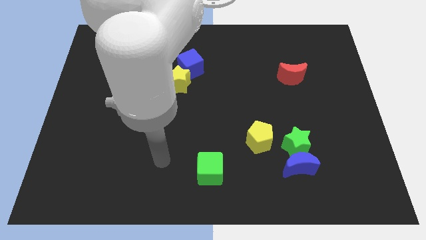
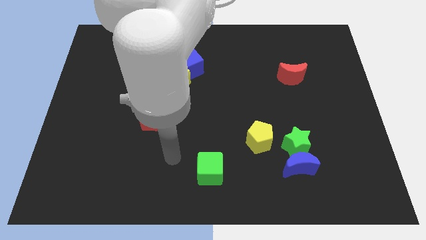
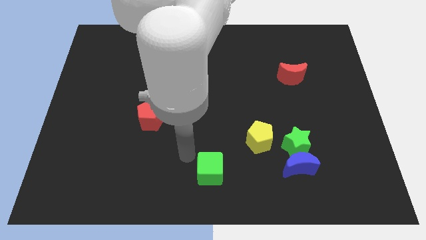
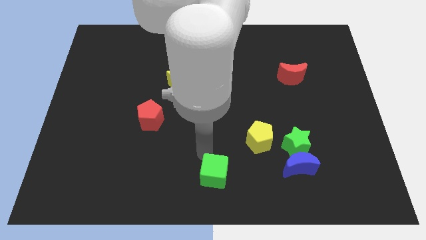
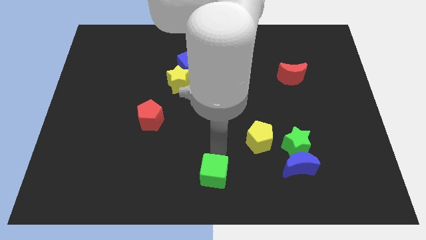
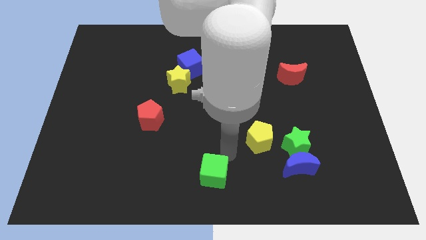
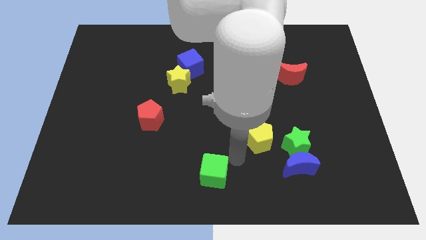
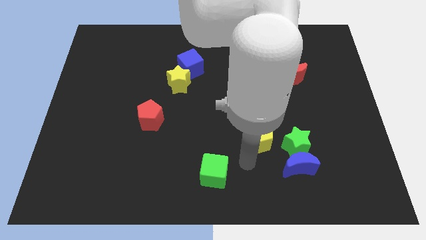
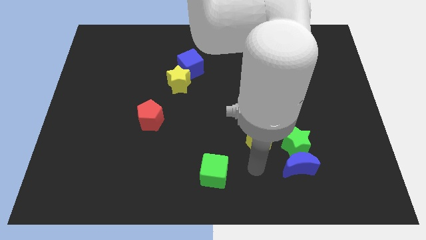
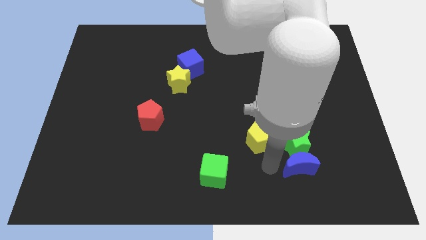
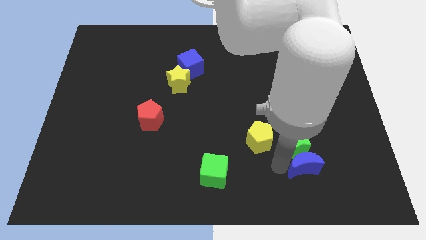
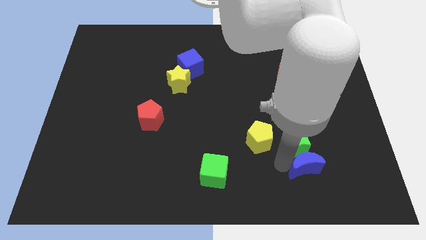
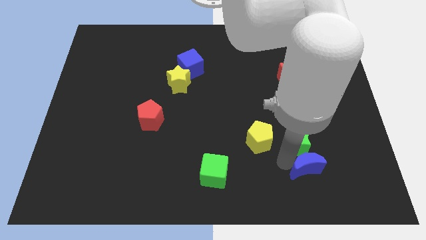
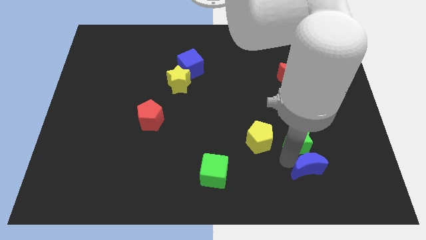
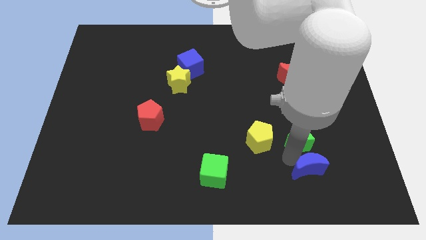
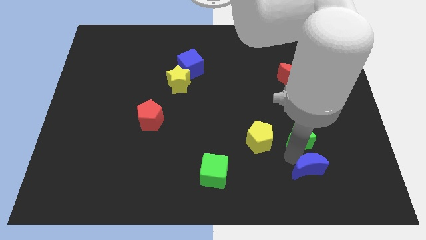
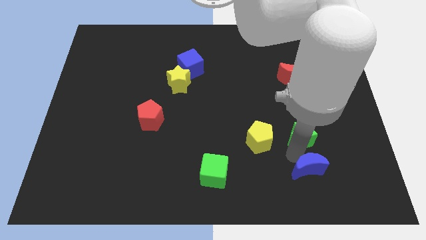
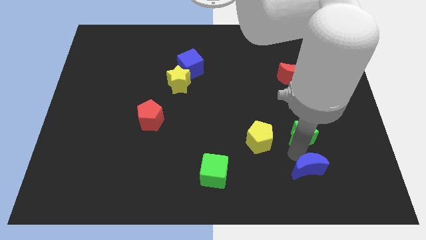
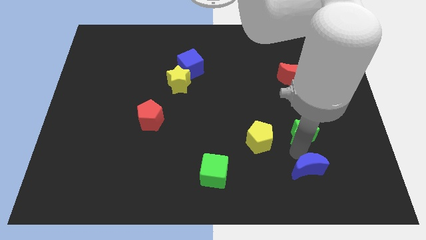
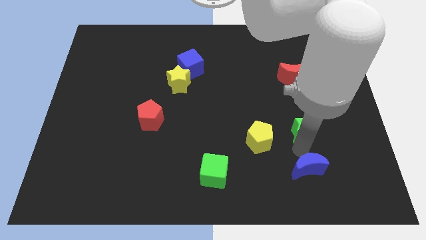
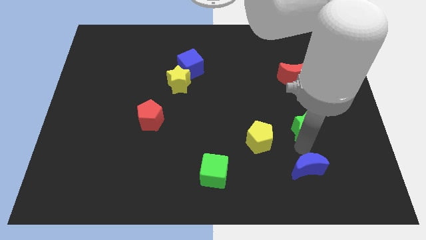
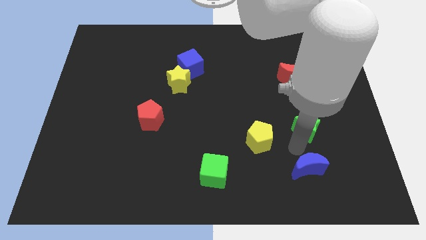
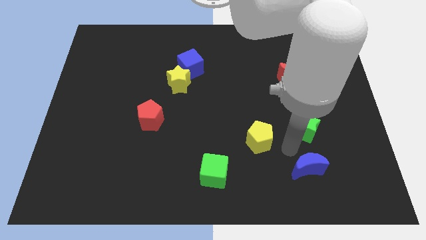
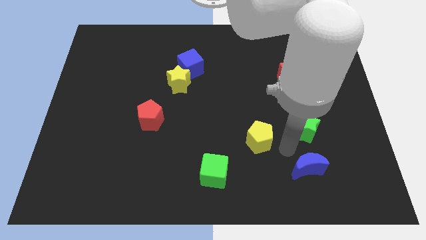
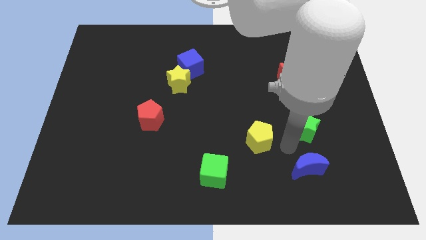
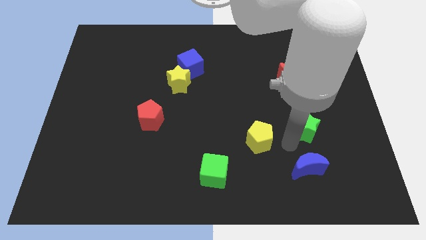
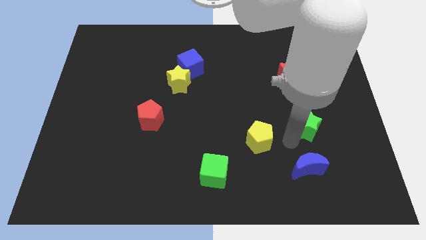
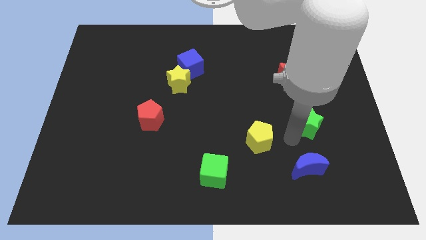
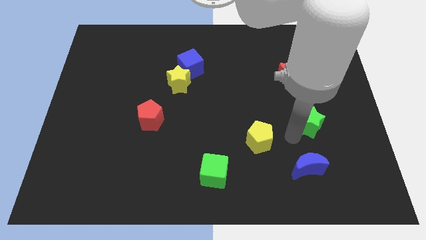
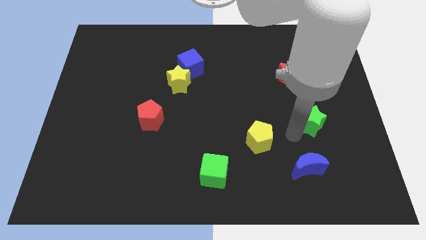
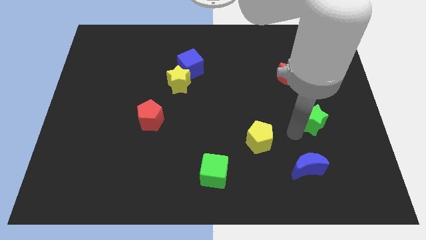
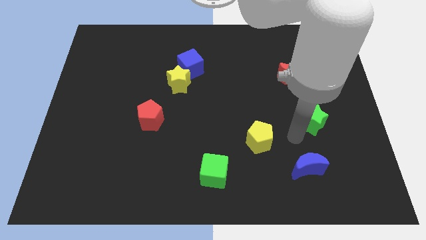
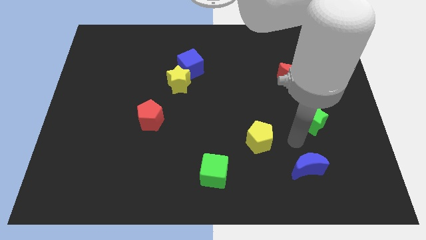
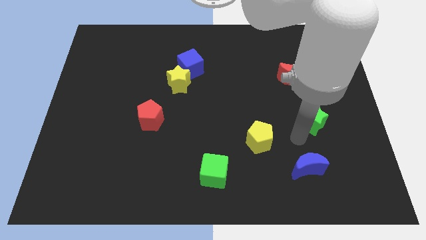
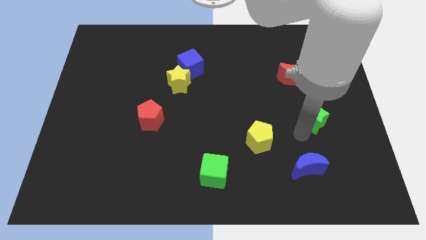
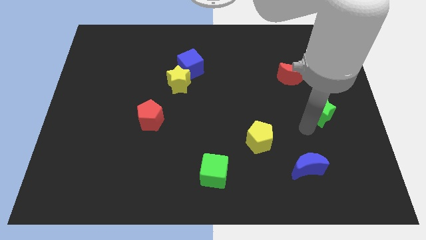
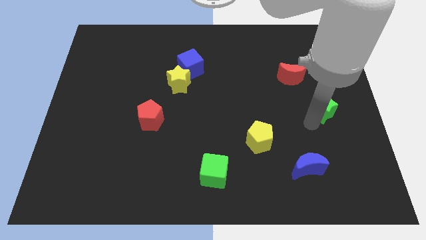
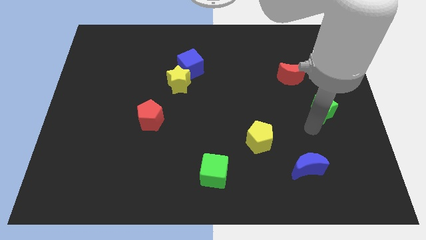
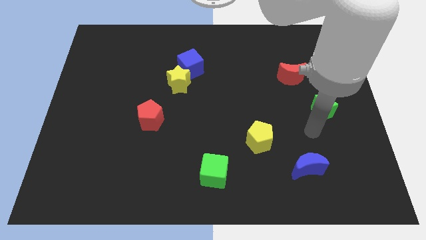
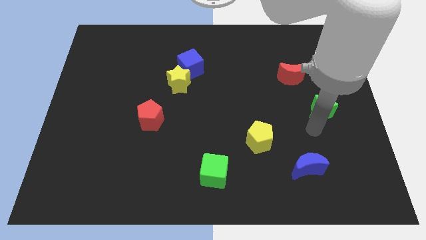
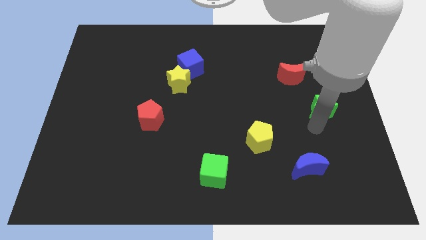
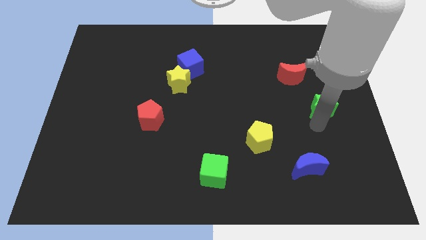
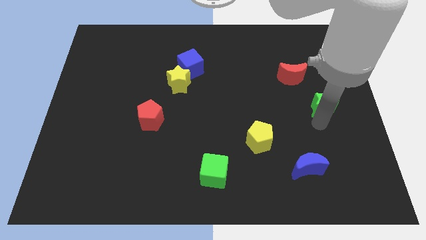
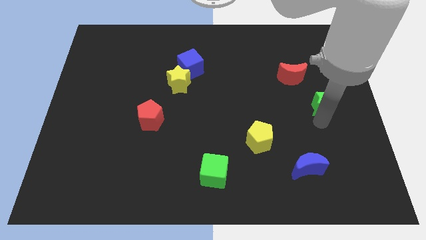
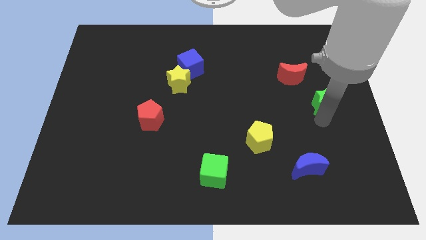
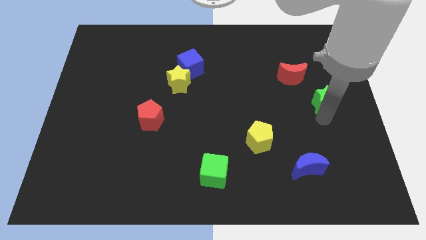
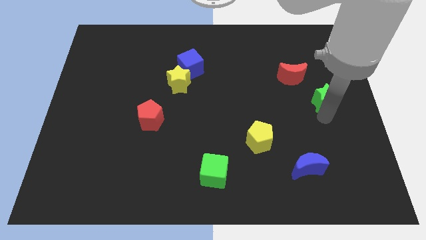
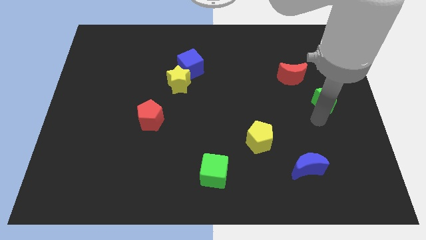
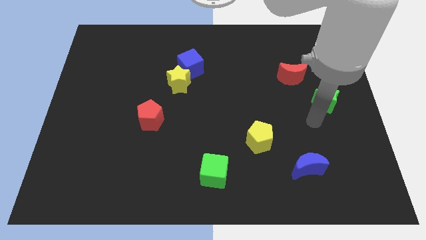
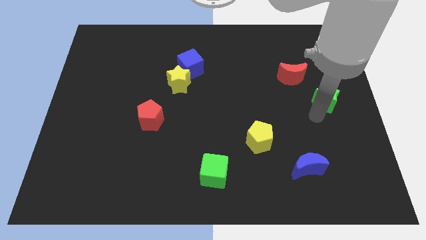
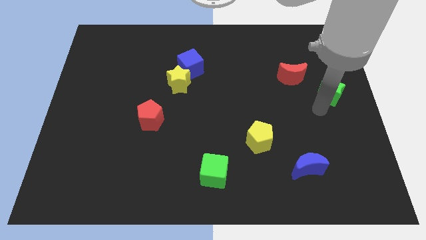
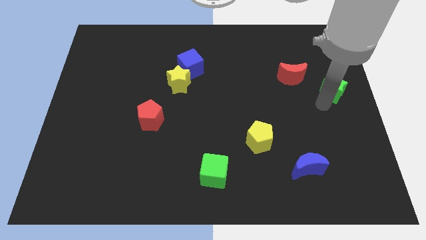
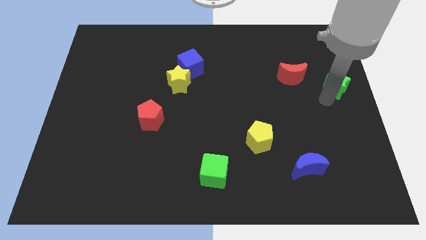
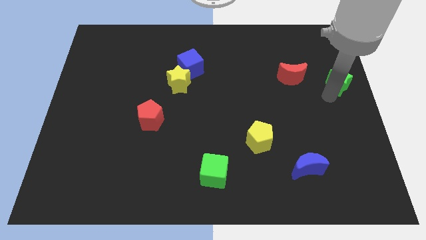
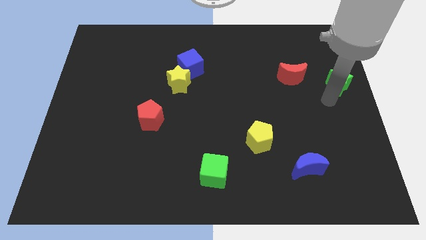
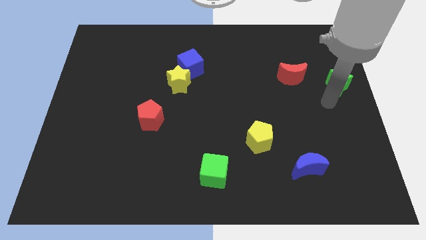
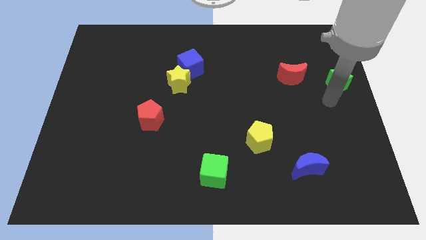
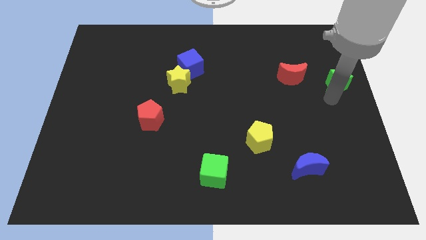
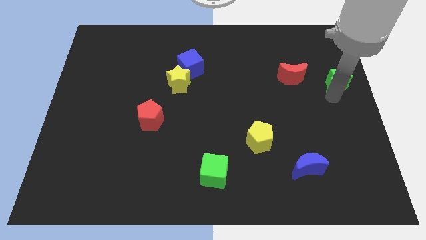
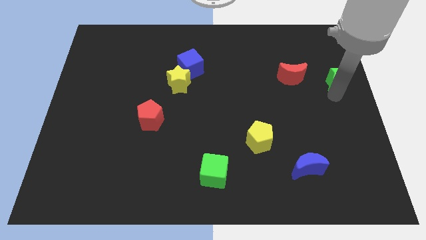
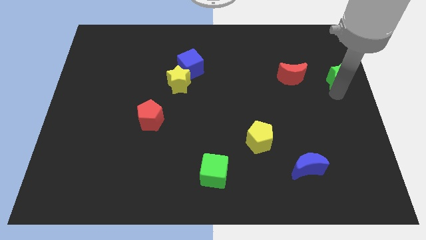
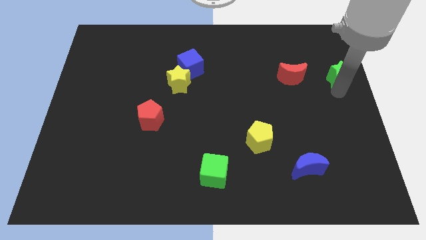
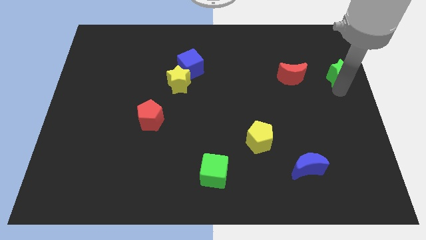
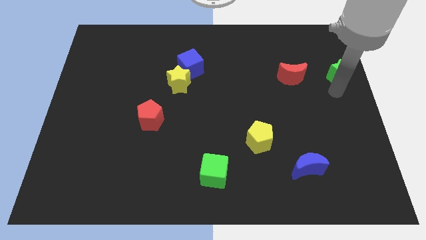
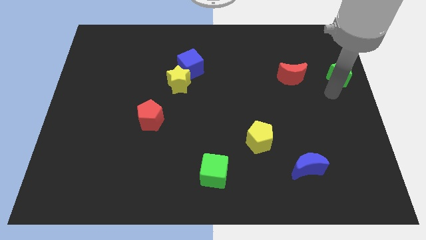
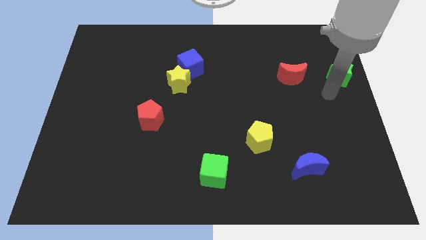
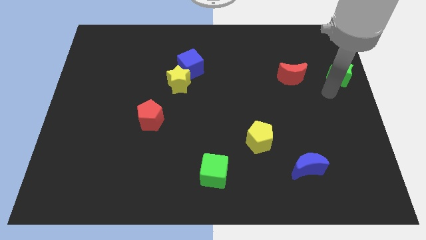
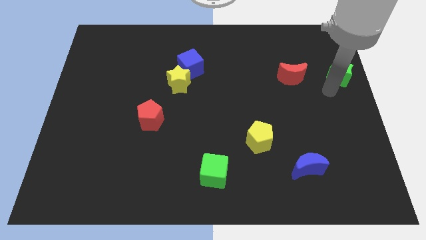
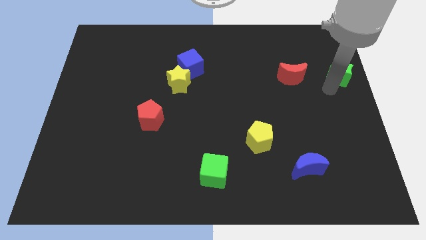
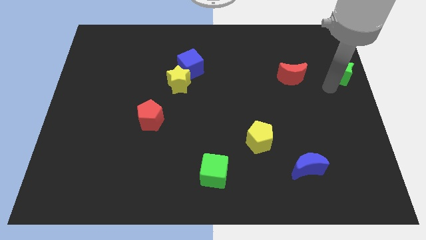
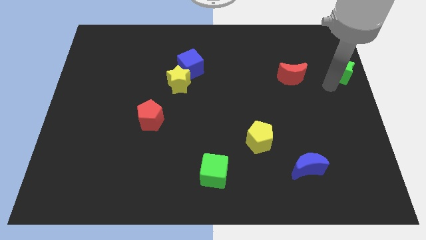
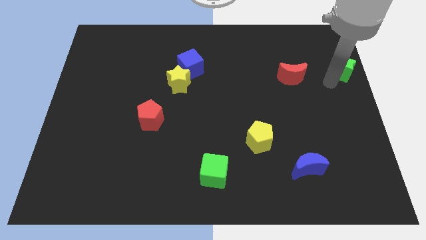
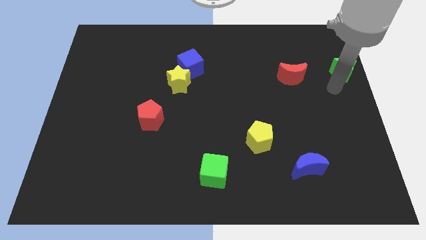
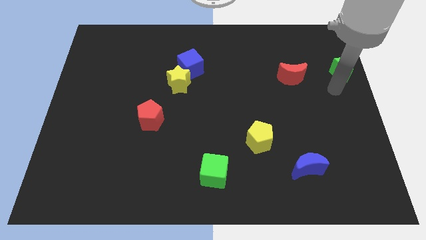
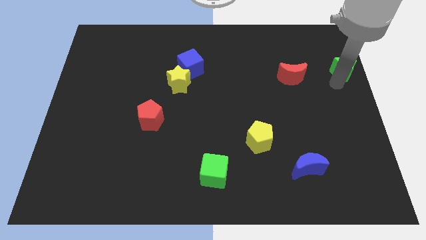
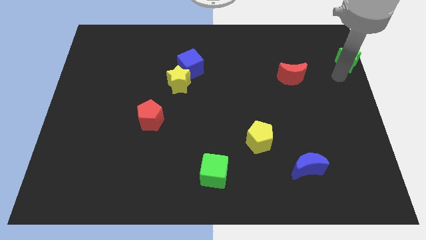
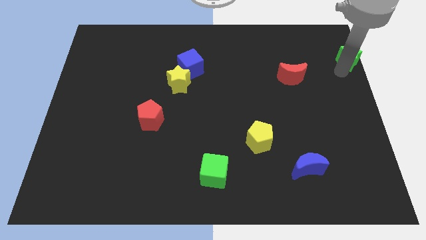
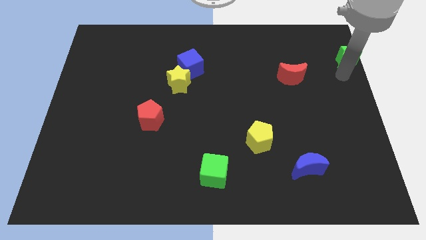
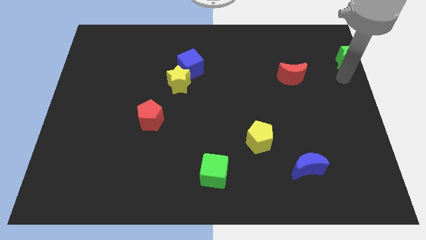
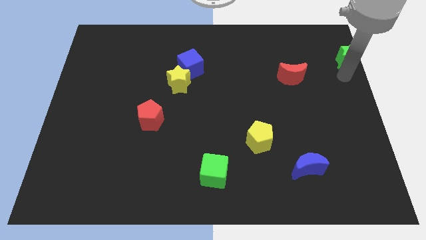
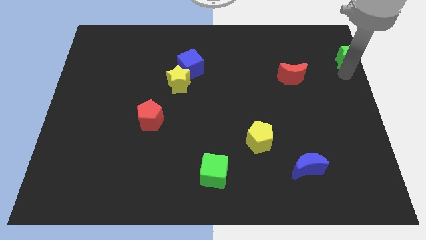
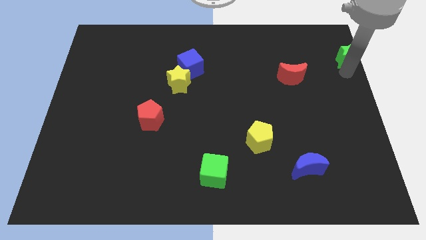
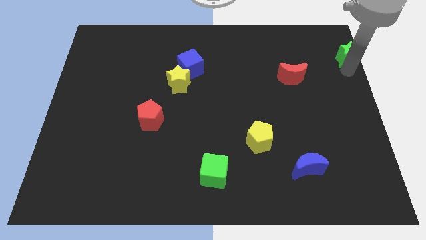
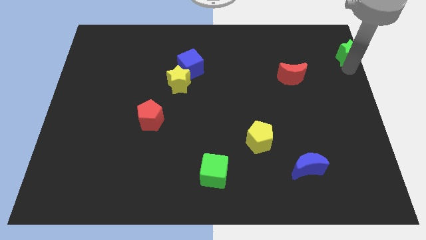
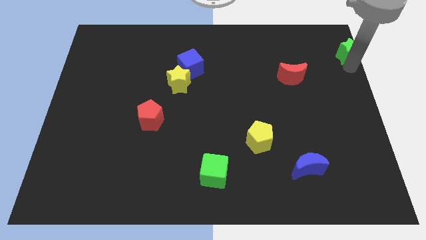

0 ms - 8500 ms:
push the green star to the upper right corner
